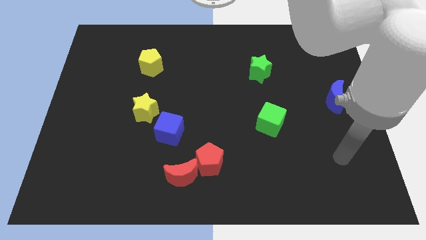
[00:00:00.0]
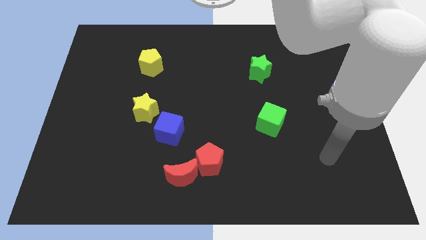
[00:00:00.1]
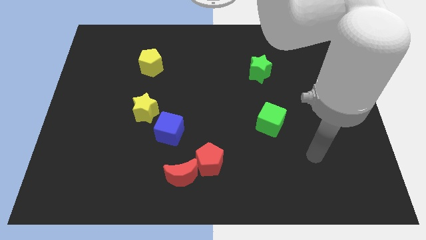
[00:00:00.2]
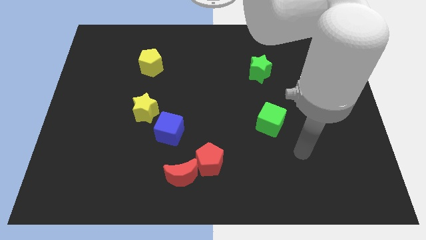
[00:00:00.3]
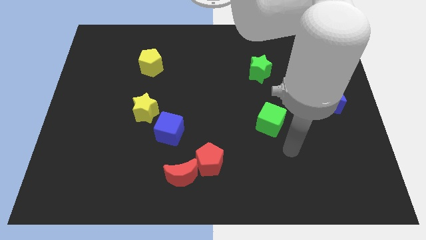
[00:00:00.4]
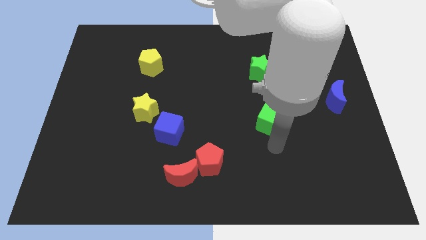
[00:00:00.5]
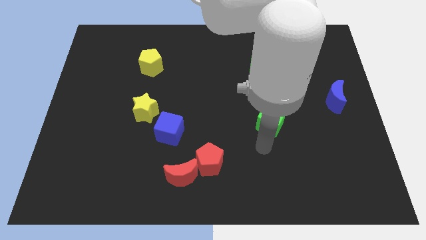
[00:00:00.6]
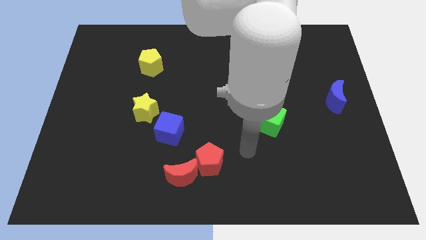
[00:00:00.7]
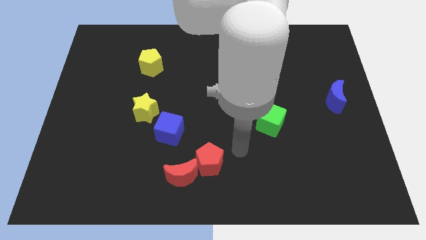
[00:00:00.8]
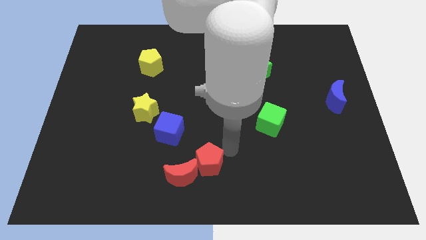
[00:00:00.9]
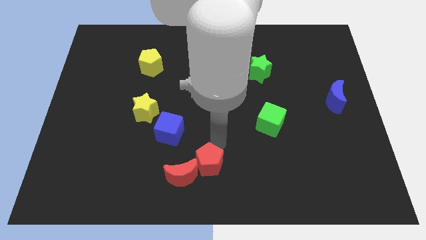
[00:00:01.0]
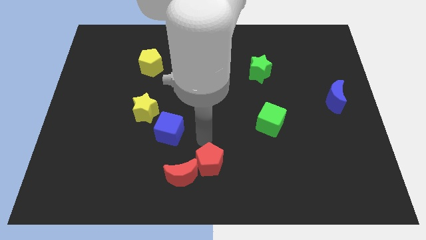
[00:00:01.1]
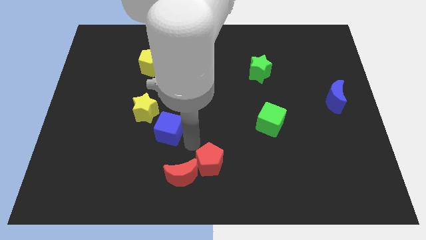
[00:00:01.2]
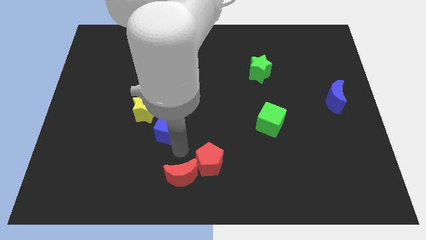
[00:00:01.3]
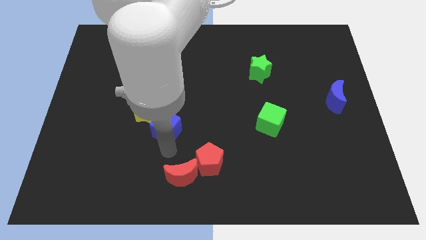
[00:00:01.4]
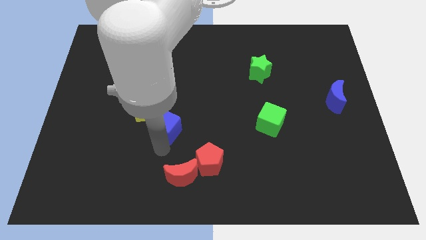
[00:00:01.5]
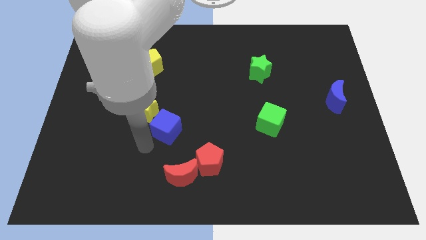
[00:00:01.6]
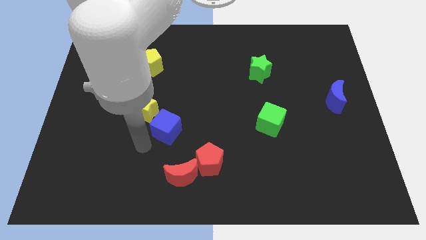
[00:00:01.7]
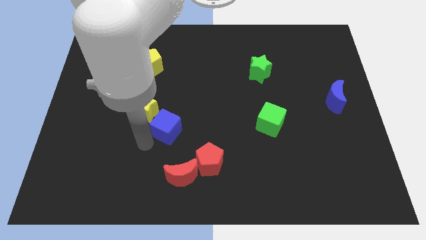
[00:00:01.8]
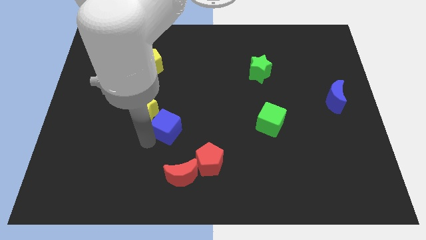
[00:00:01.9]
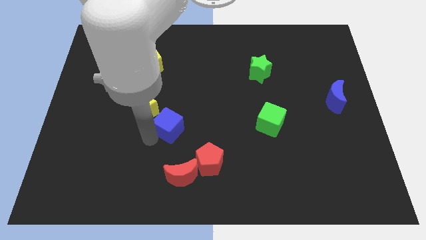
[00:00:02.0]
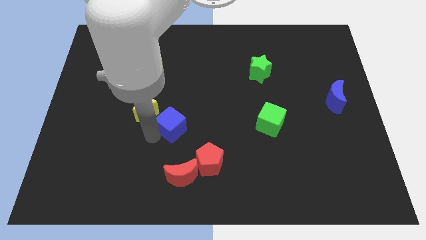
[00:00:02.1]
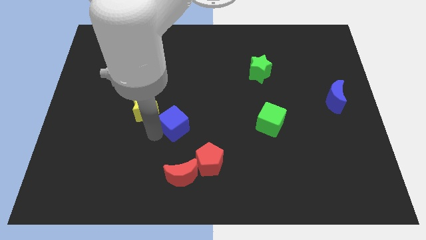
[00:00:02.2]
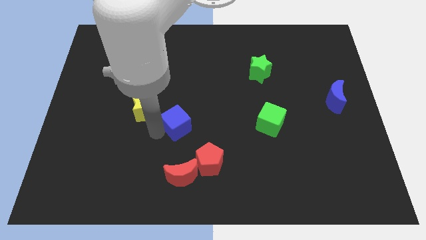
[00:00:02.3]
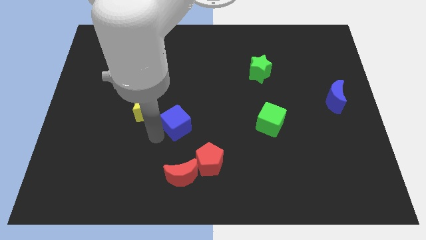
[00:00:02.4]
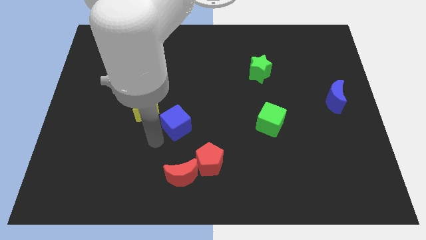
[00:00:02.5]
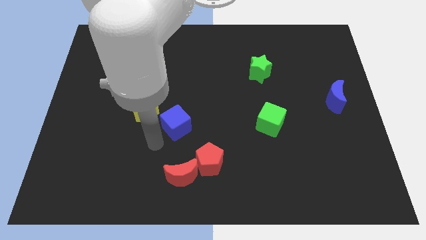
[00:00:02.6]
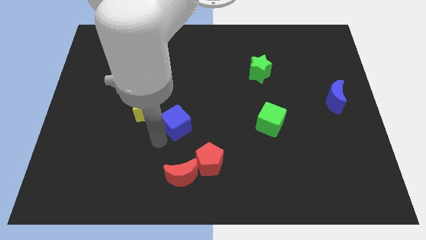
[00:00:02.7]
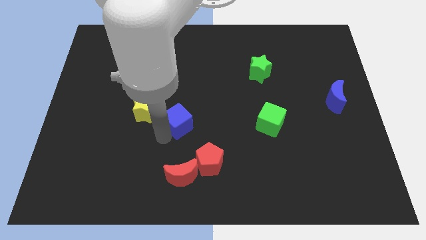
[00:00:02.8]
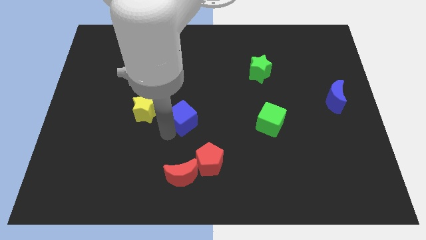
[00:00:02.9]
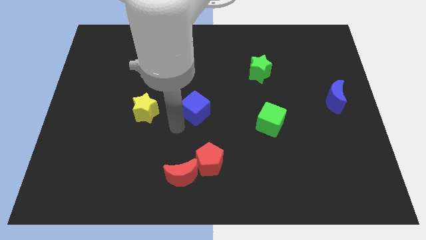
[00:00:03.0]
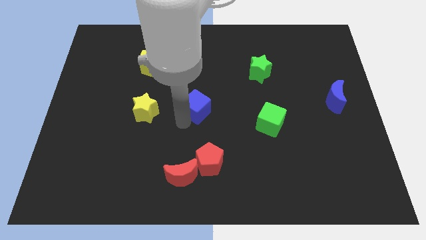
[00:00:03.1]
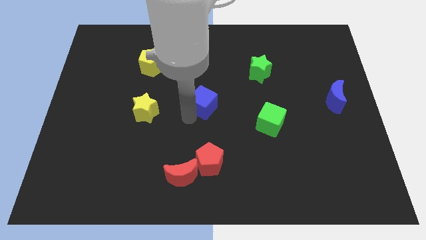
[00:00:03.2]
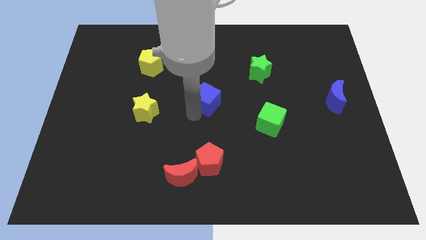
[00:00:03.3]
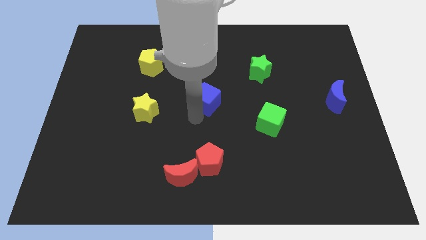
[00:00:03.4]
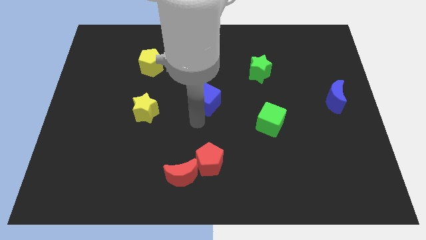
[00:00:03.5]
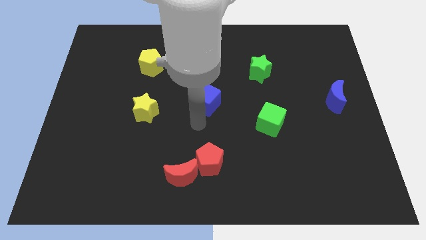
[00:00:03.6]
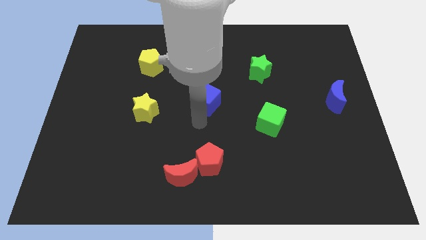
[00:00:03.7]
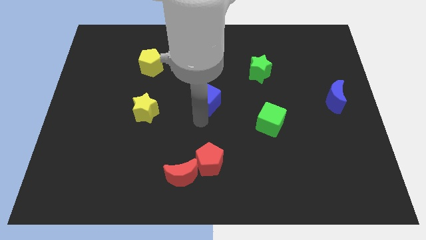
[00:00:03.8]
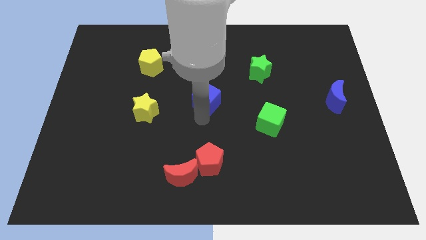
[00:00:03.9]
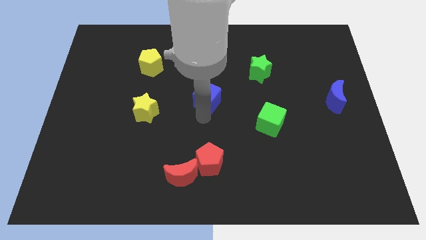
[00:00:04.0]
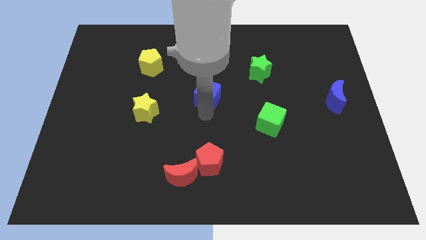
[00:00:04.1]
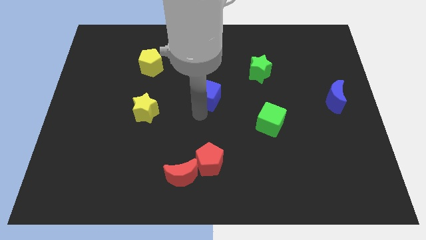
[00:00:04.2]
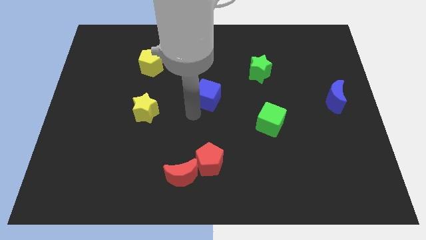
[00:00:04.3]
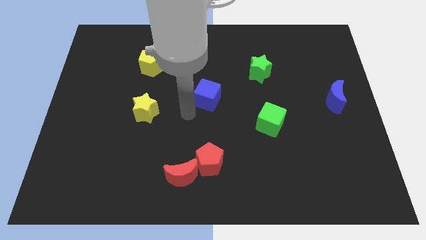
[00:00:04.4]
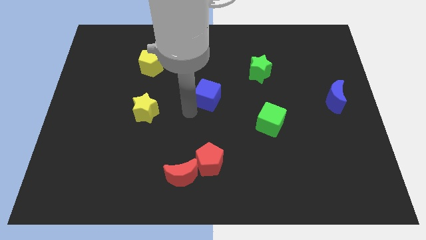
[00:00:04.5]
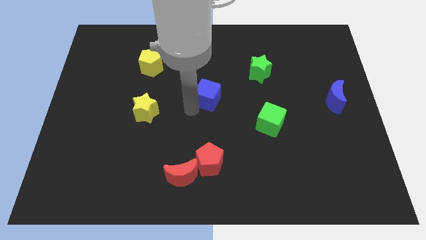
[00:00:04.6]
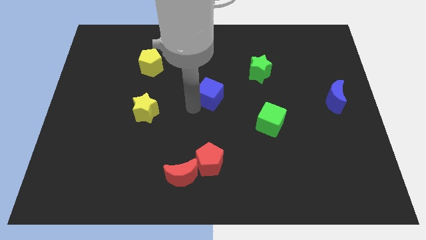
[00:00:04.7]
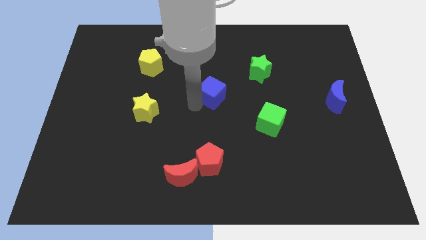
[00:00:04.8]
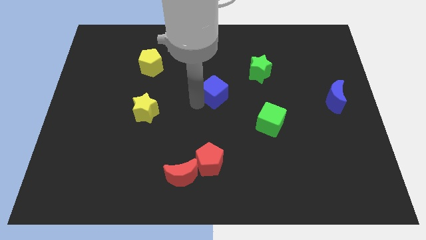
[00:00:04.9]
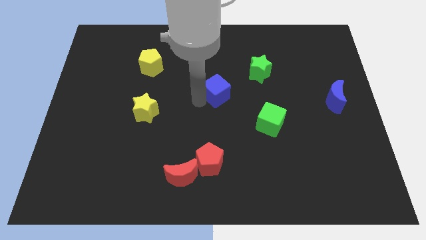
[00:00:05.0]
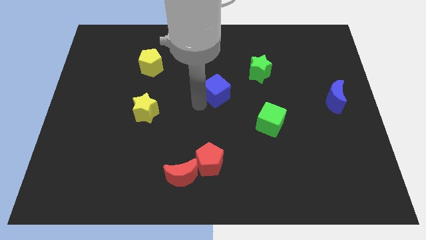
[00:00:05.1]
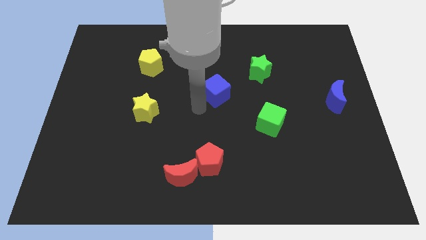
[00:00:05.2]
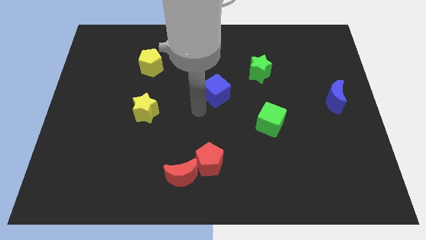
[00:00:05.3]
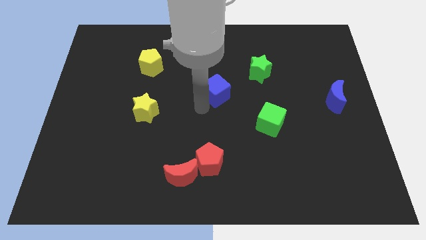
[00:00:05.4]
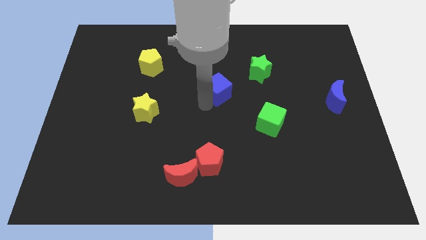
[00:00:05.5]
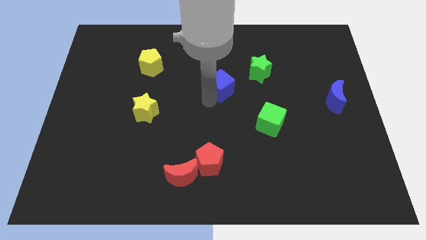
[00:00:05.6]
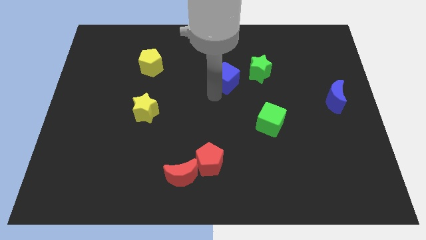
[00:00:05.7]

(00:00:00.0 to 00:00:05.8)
move the blue cube up and then to the right

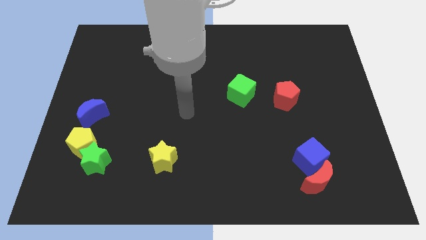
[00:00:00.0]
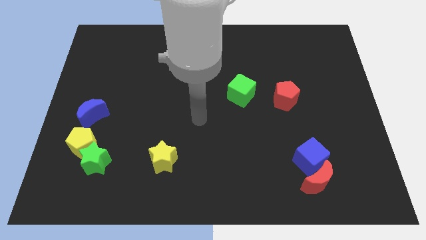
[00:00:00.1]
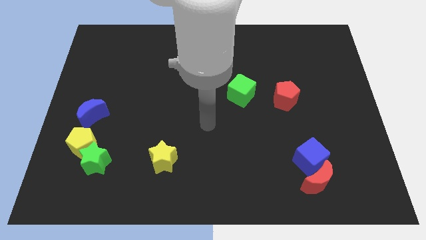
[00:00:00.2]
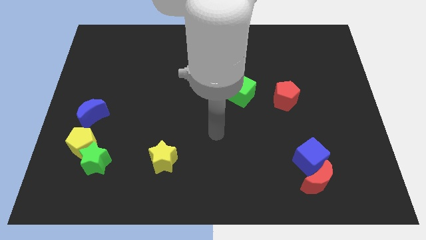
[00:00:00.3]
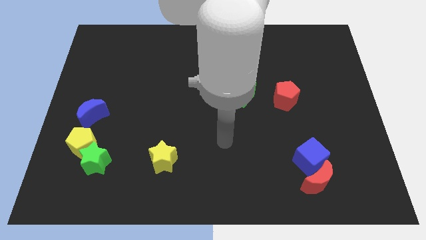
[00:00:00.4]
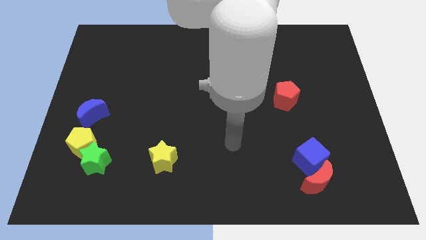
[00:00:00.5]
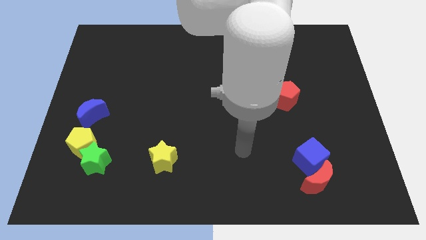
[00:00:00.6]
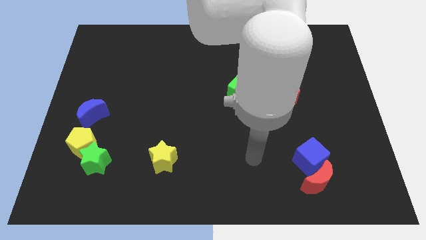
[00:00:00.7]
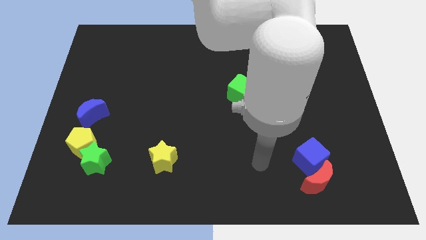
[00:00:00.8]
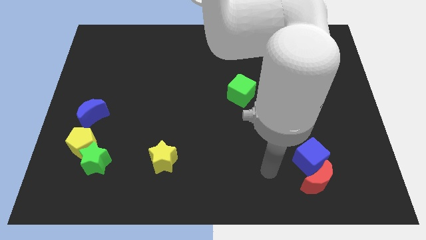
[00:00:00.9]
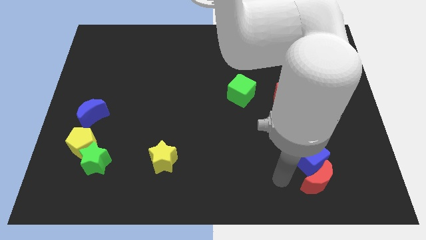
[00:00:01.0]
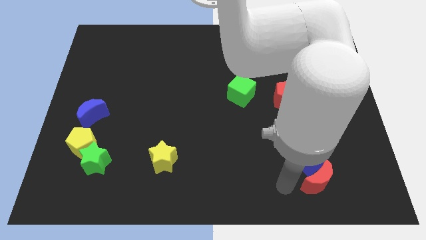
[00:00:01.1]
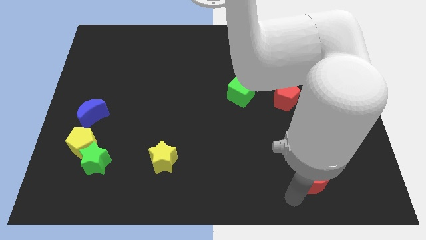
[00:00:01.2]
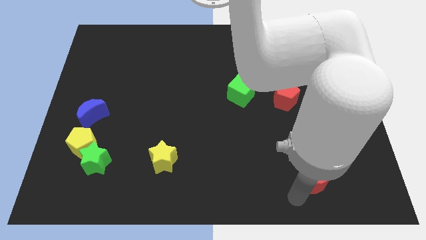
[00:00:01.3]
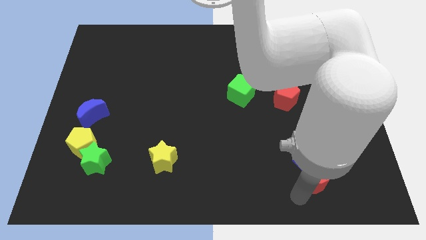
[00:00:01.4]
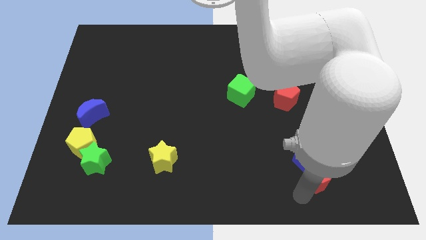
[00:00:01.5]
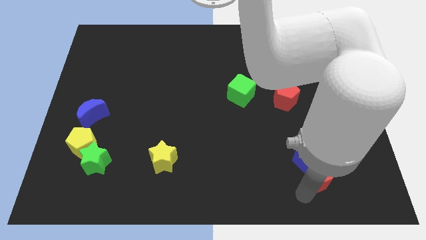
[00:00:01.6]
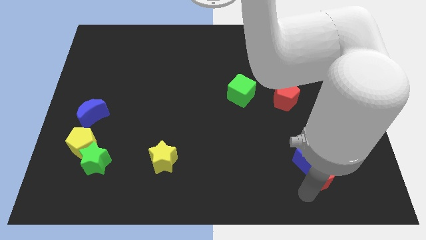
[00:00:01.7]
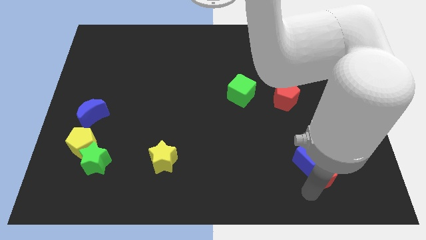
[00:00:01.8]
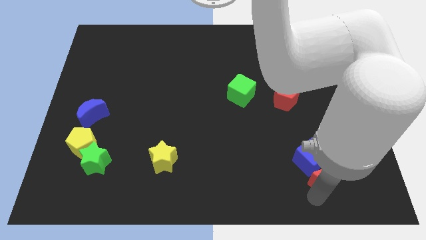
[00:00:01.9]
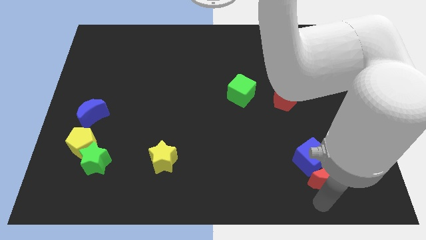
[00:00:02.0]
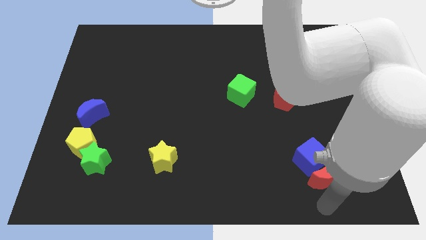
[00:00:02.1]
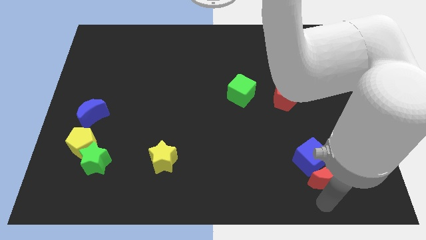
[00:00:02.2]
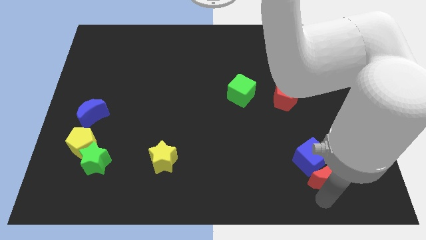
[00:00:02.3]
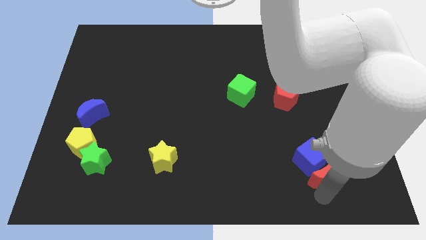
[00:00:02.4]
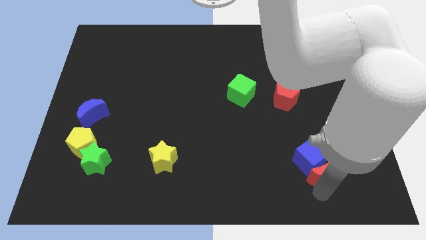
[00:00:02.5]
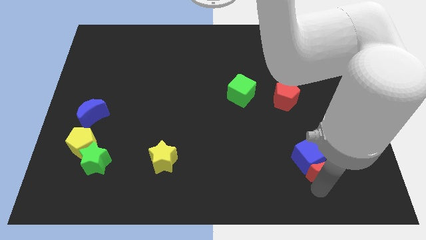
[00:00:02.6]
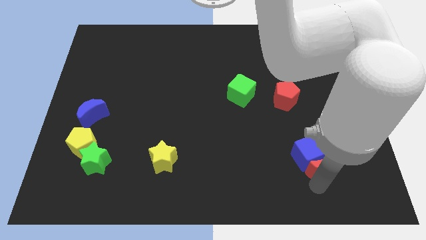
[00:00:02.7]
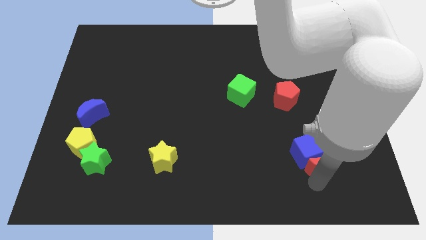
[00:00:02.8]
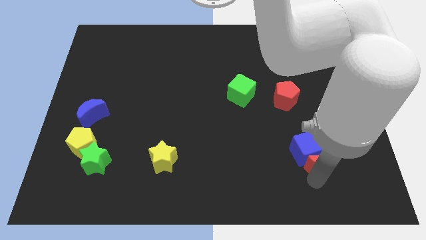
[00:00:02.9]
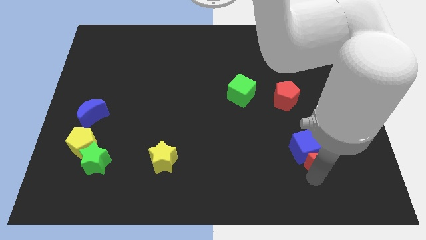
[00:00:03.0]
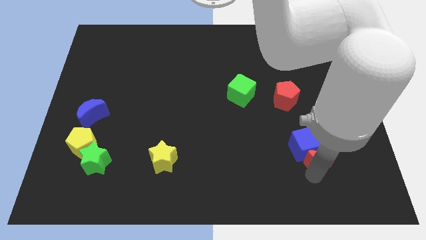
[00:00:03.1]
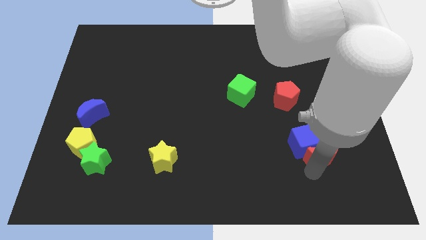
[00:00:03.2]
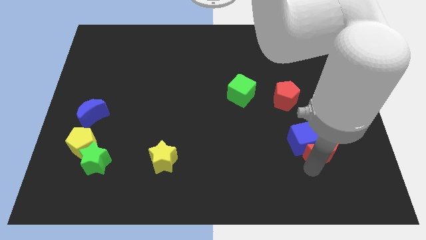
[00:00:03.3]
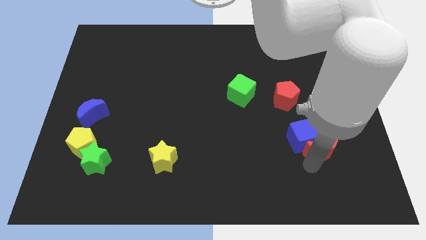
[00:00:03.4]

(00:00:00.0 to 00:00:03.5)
slide the red moon up a bit
